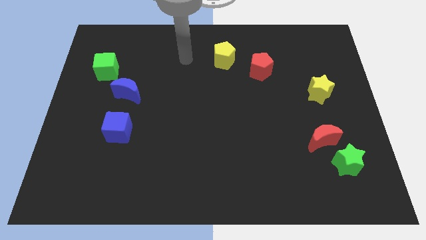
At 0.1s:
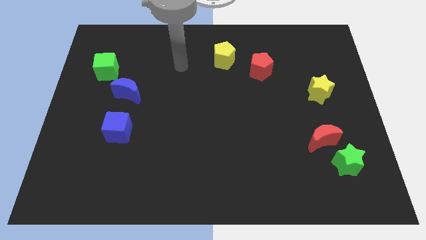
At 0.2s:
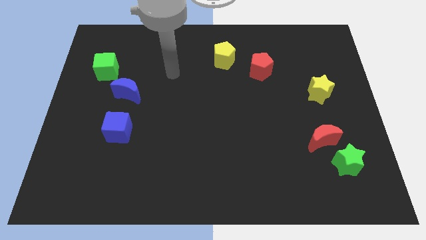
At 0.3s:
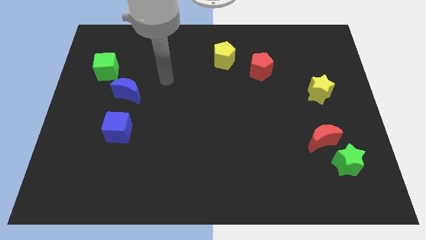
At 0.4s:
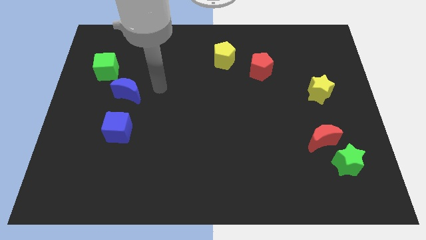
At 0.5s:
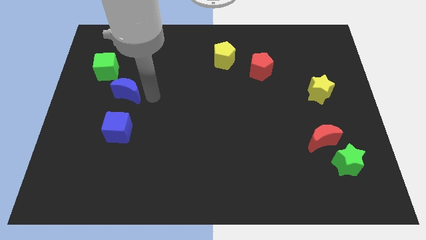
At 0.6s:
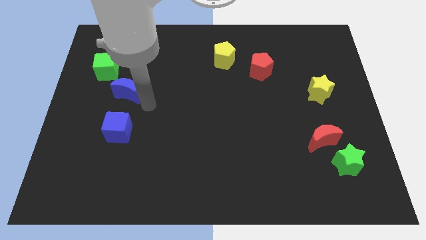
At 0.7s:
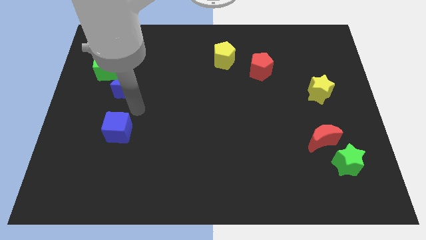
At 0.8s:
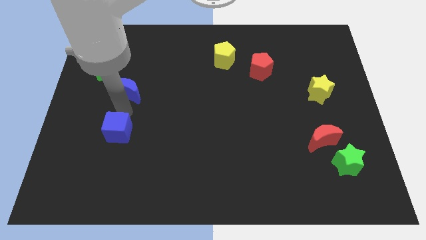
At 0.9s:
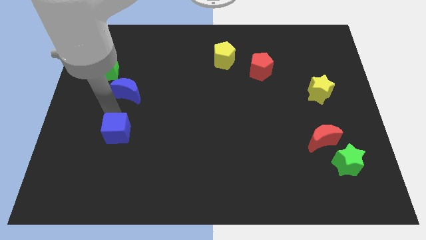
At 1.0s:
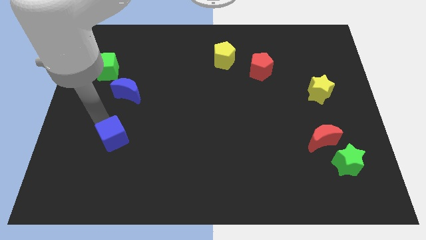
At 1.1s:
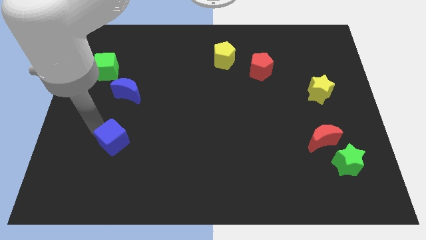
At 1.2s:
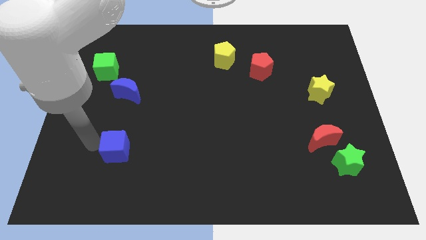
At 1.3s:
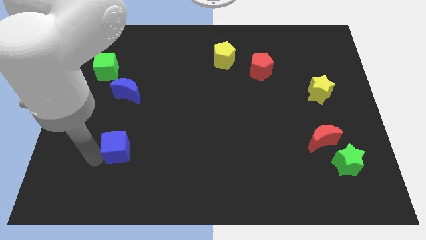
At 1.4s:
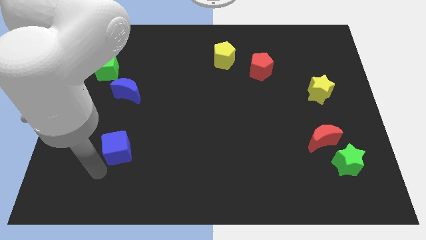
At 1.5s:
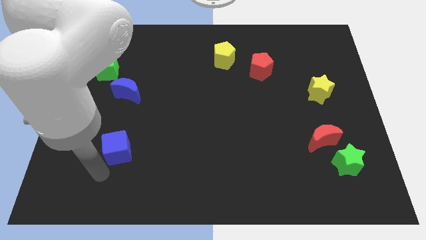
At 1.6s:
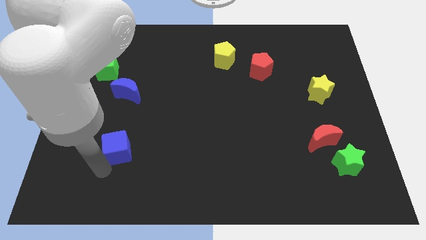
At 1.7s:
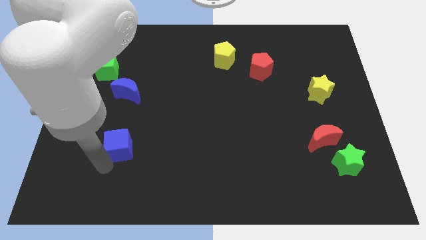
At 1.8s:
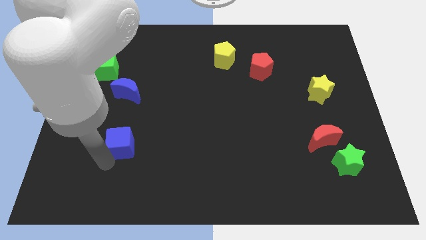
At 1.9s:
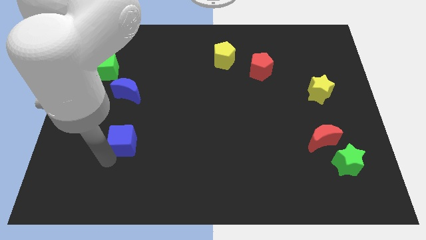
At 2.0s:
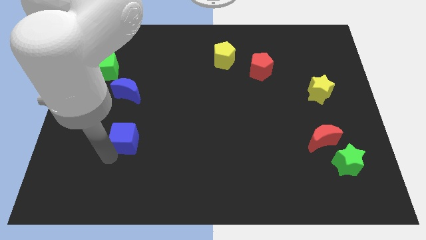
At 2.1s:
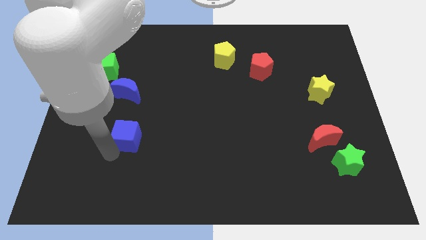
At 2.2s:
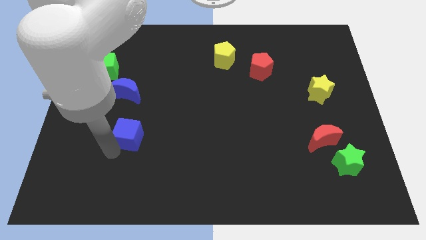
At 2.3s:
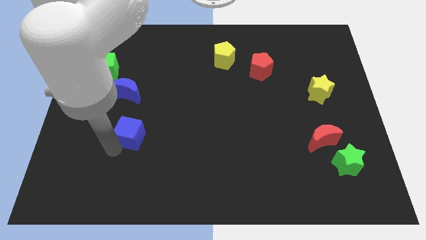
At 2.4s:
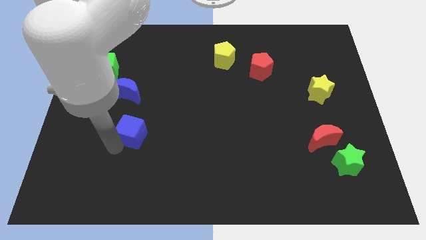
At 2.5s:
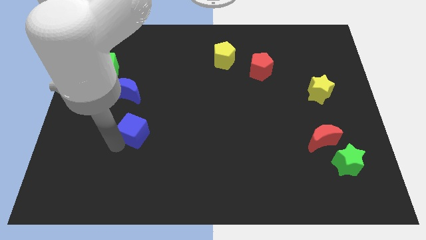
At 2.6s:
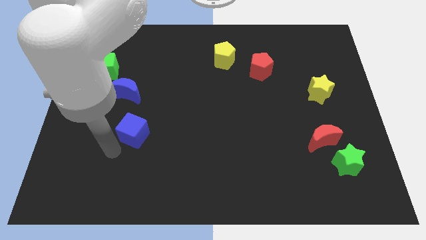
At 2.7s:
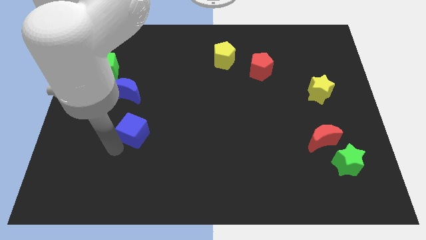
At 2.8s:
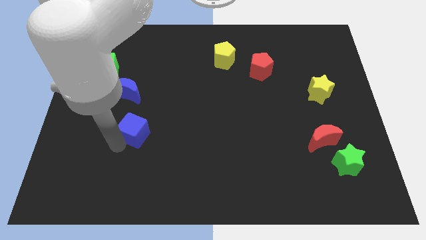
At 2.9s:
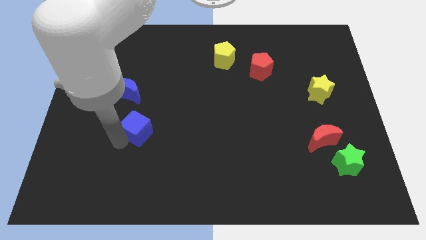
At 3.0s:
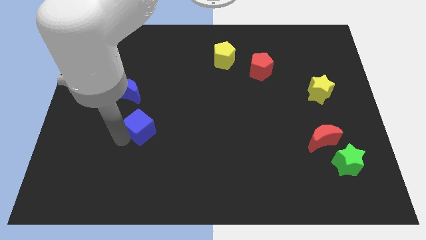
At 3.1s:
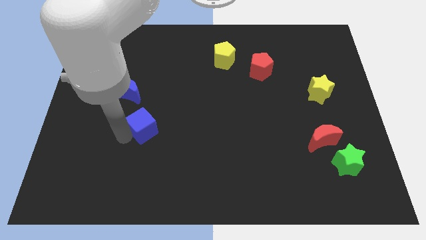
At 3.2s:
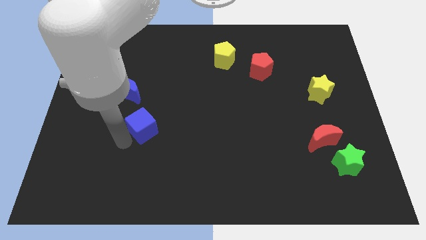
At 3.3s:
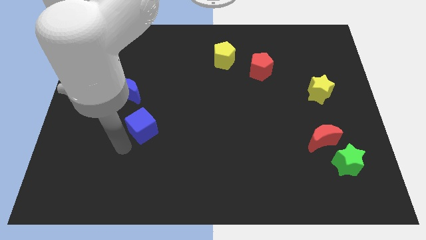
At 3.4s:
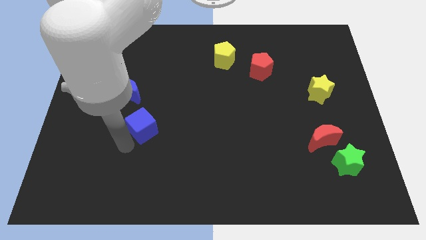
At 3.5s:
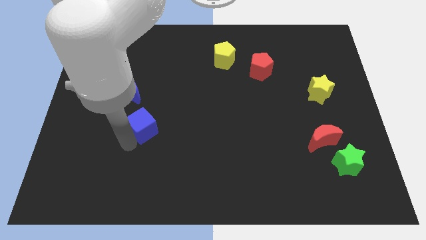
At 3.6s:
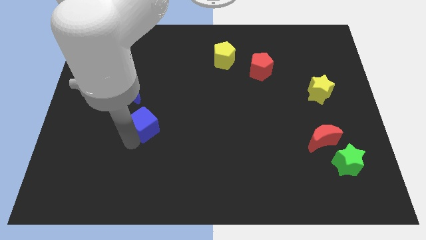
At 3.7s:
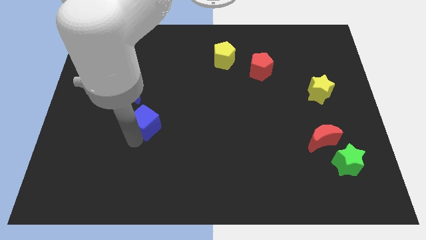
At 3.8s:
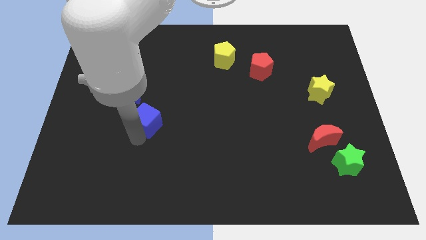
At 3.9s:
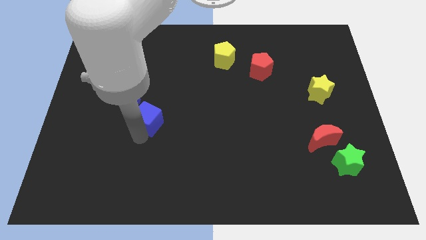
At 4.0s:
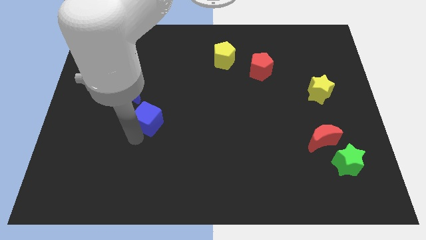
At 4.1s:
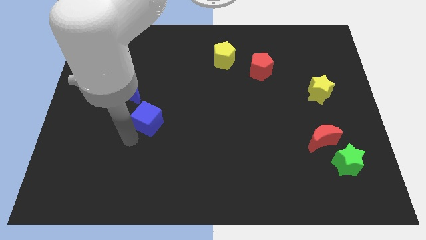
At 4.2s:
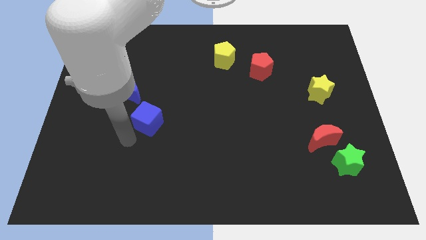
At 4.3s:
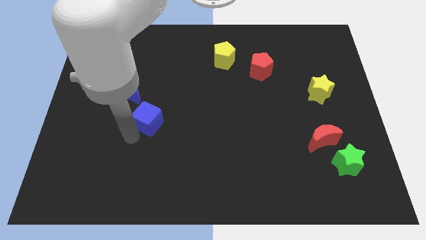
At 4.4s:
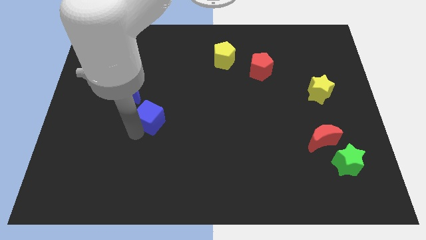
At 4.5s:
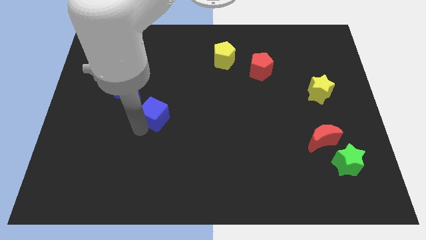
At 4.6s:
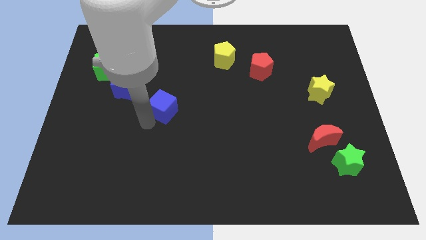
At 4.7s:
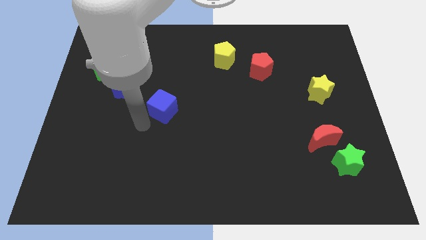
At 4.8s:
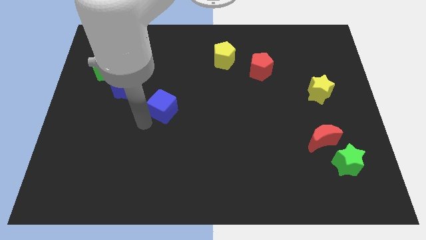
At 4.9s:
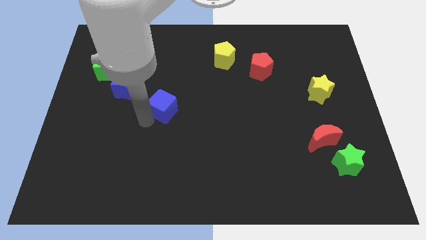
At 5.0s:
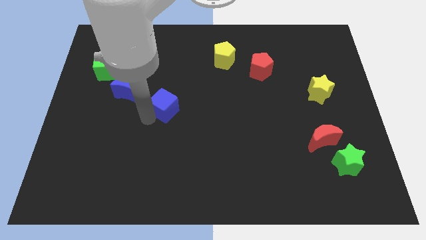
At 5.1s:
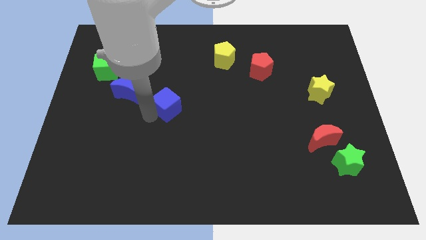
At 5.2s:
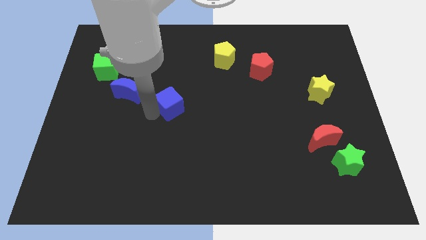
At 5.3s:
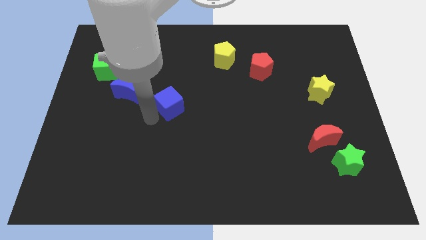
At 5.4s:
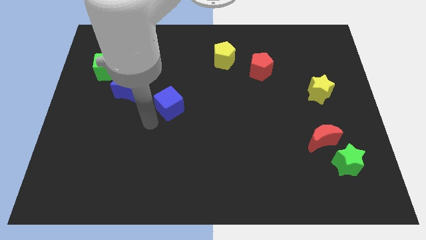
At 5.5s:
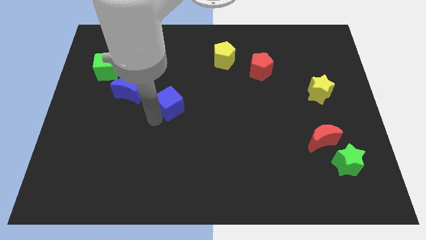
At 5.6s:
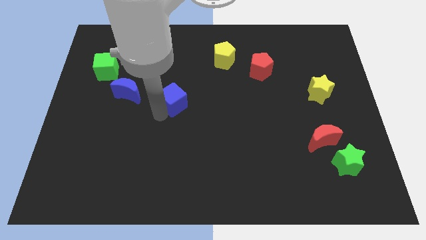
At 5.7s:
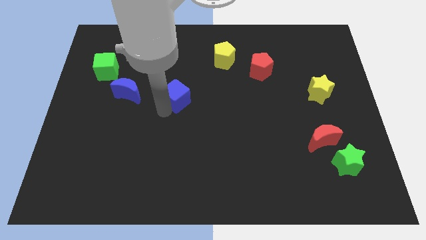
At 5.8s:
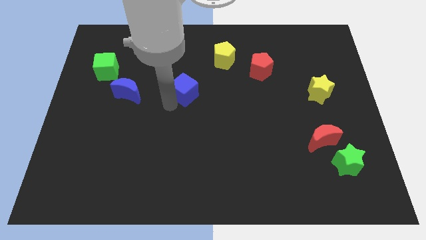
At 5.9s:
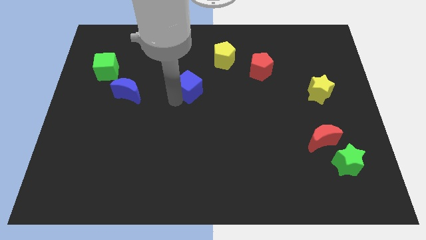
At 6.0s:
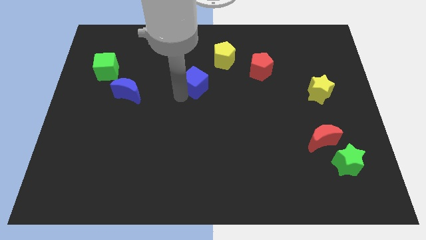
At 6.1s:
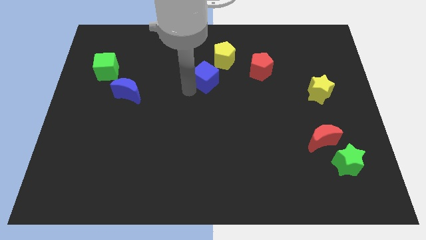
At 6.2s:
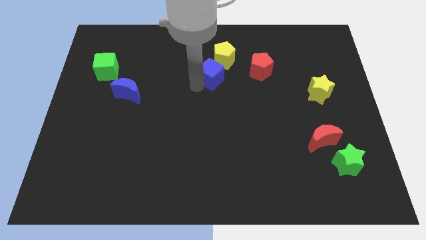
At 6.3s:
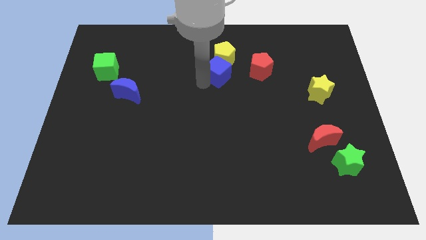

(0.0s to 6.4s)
push the blue cube next to the yellow pentagon

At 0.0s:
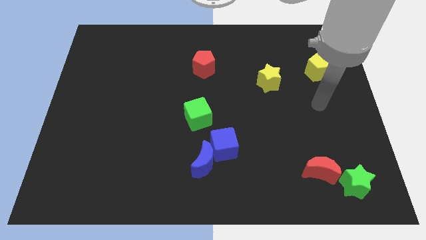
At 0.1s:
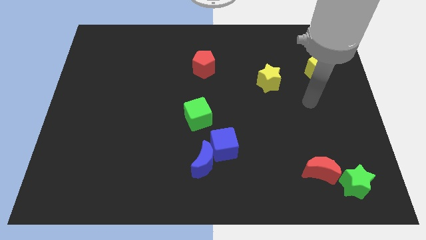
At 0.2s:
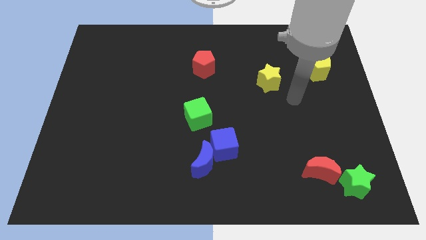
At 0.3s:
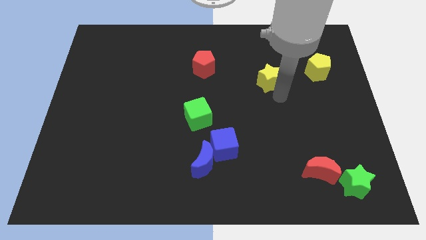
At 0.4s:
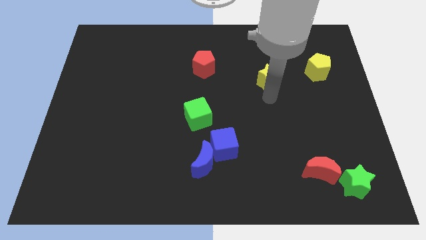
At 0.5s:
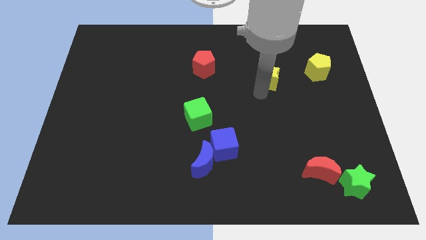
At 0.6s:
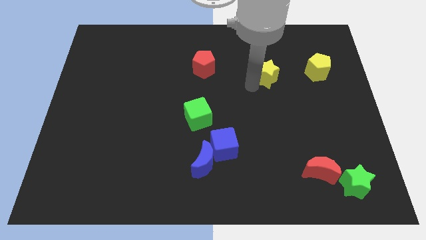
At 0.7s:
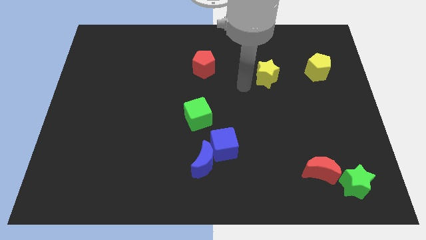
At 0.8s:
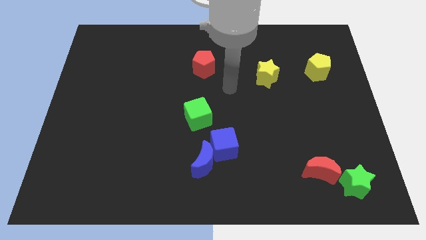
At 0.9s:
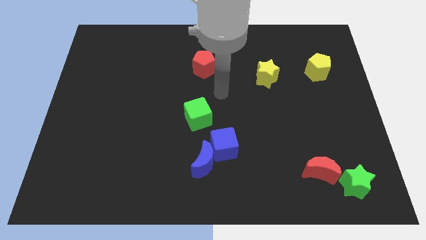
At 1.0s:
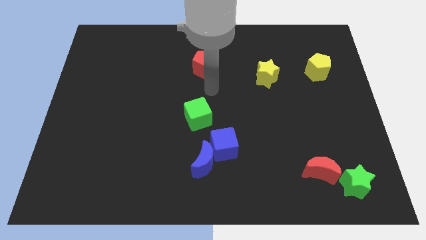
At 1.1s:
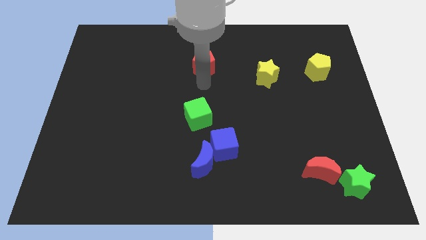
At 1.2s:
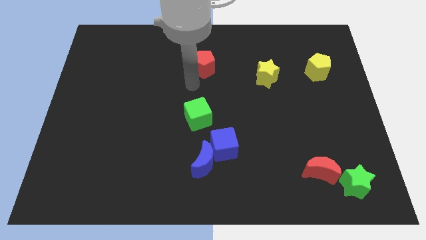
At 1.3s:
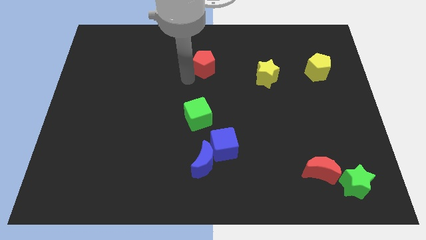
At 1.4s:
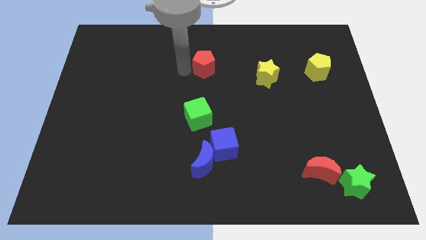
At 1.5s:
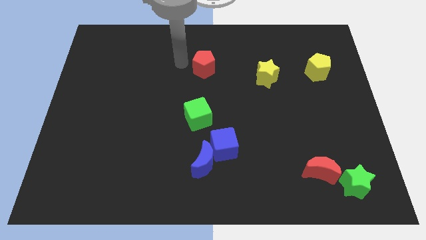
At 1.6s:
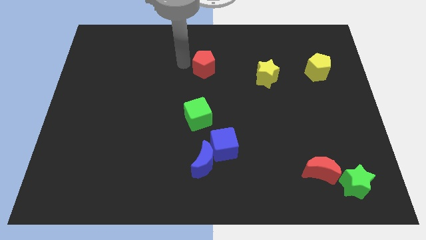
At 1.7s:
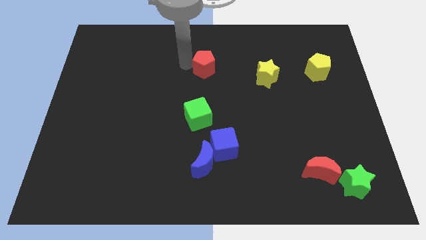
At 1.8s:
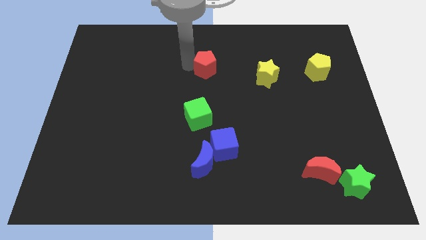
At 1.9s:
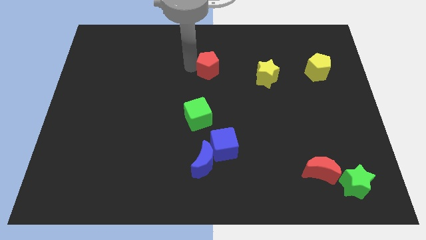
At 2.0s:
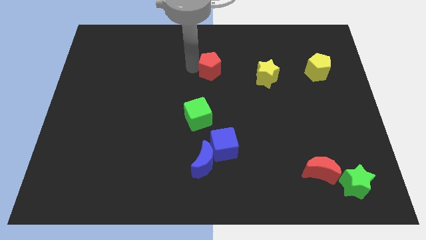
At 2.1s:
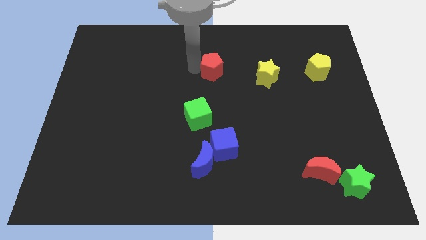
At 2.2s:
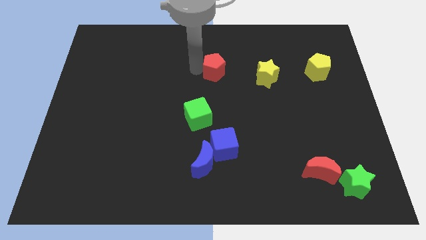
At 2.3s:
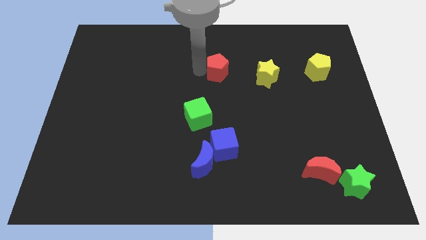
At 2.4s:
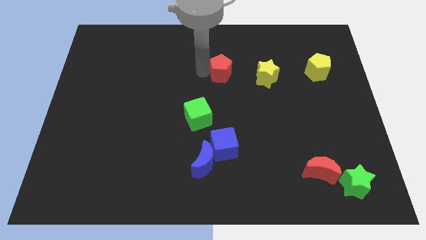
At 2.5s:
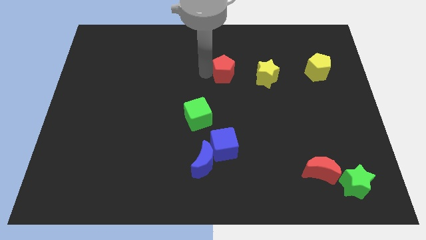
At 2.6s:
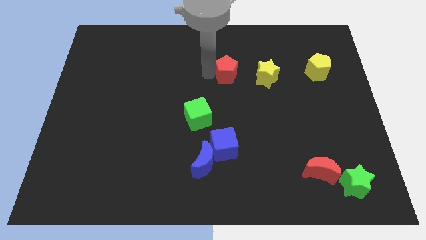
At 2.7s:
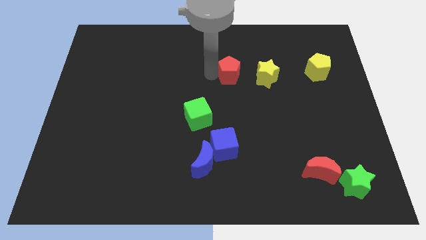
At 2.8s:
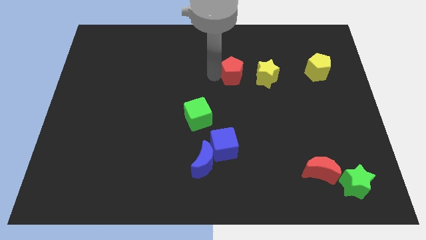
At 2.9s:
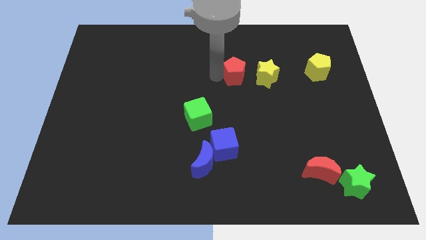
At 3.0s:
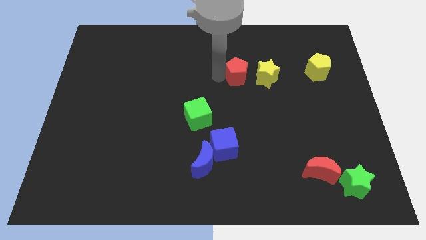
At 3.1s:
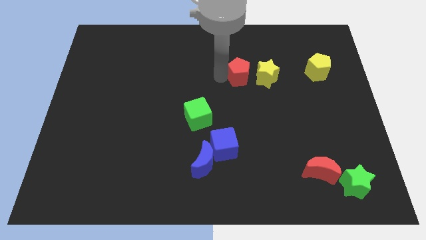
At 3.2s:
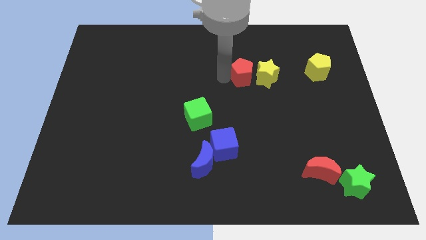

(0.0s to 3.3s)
push the red pentagon close to the yellow star
